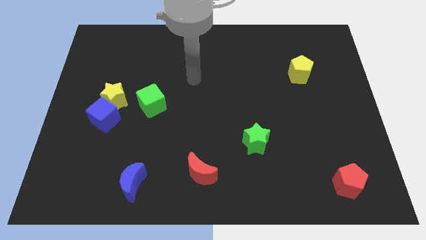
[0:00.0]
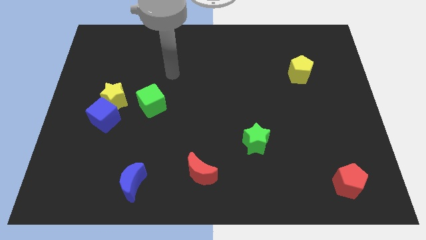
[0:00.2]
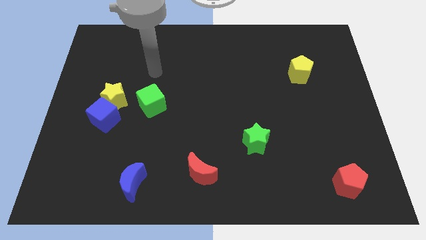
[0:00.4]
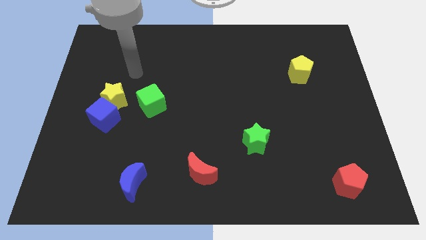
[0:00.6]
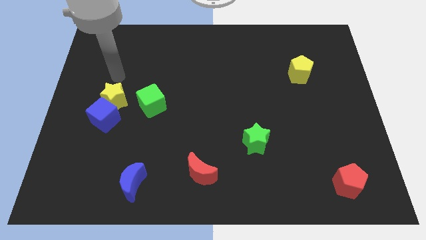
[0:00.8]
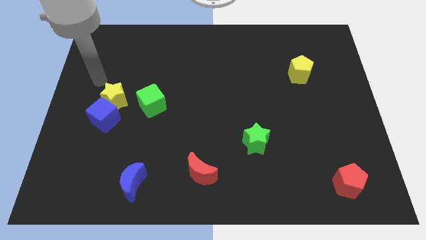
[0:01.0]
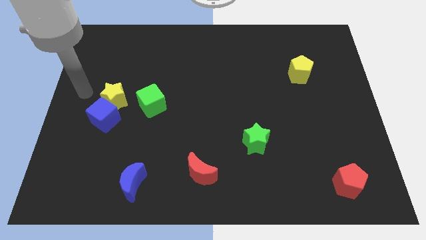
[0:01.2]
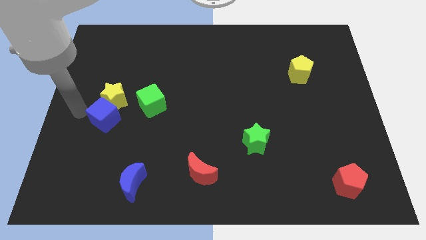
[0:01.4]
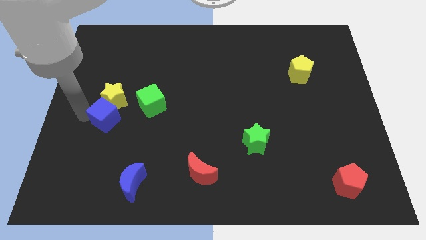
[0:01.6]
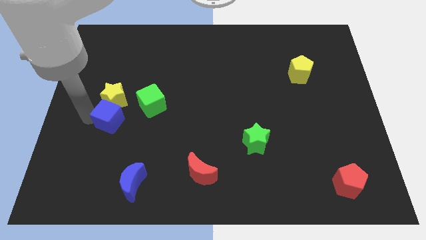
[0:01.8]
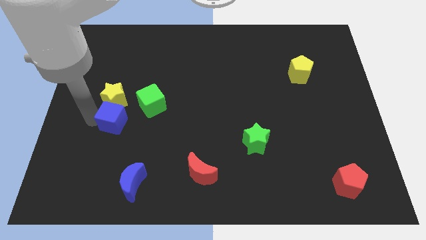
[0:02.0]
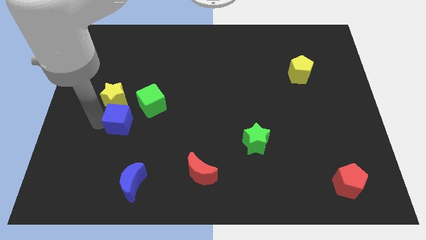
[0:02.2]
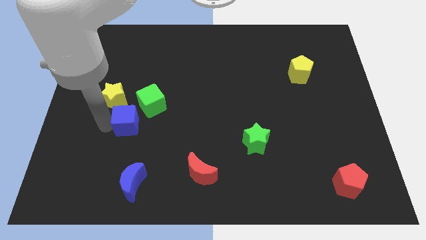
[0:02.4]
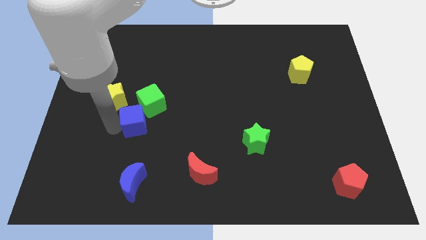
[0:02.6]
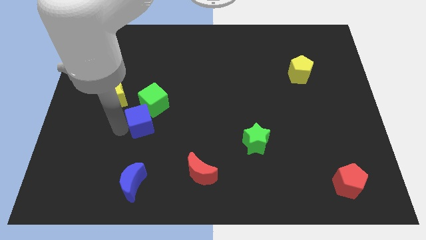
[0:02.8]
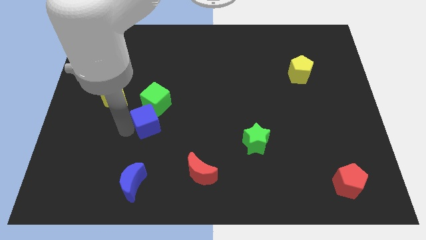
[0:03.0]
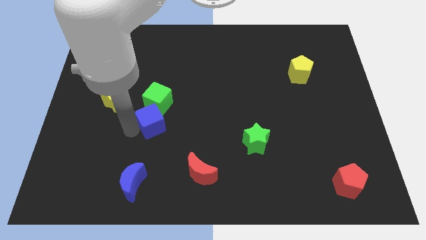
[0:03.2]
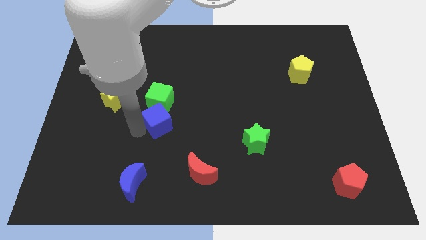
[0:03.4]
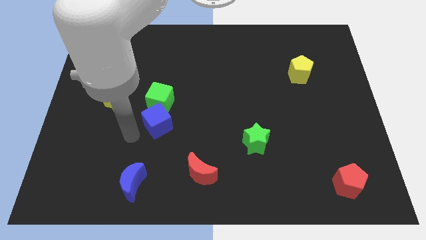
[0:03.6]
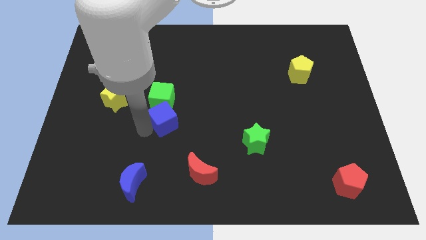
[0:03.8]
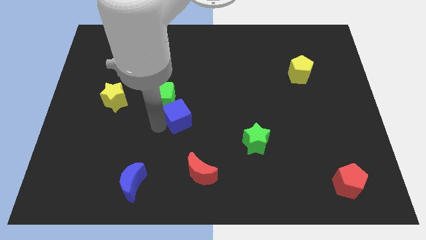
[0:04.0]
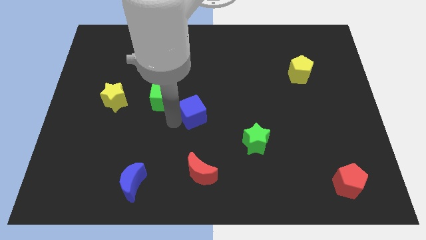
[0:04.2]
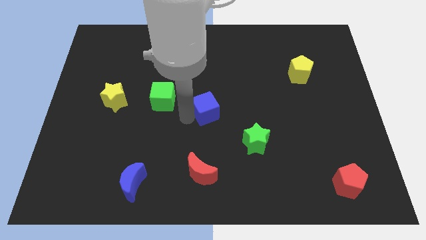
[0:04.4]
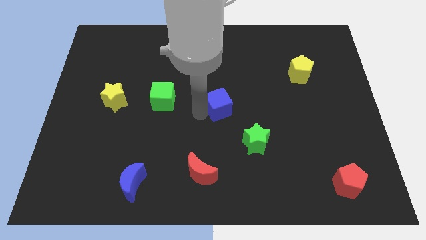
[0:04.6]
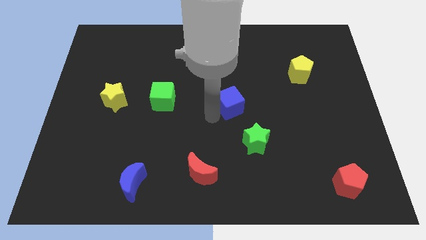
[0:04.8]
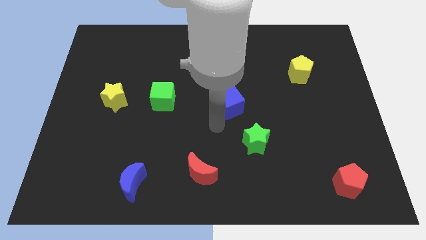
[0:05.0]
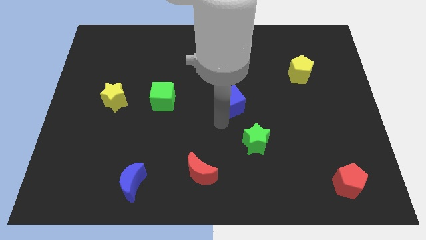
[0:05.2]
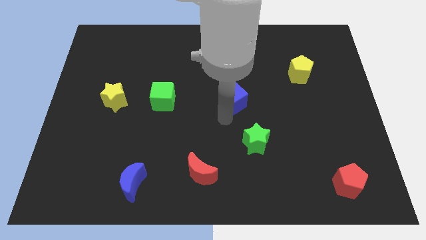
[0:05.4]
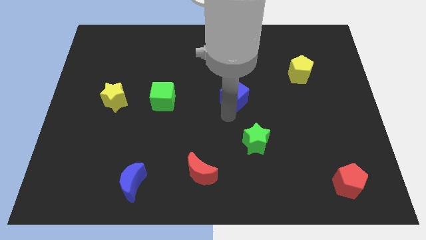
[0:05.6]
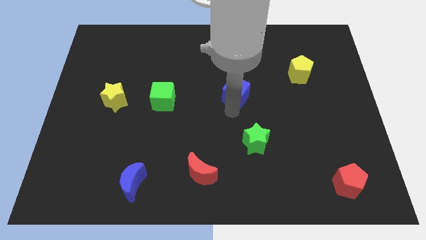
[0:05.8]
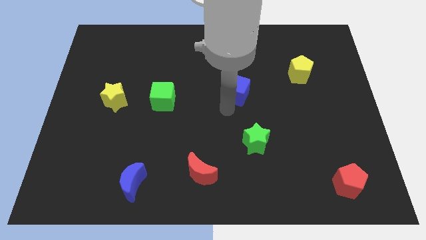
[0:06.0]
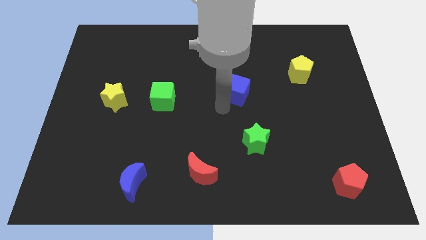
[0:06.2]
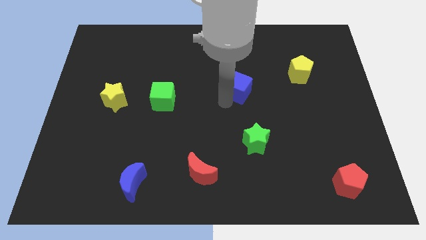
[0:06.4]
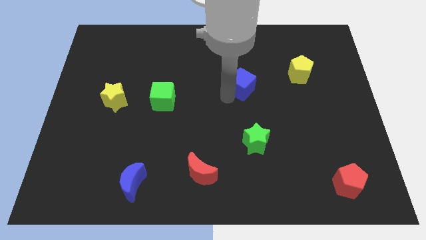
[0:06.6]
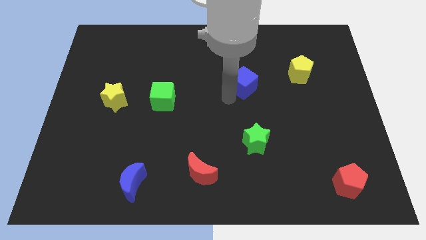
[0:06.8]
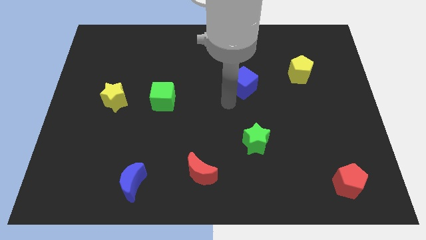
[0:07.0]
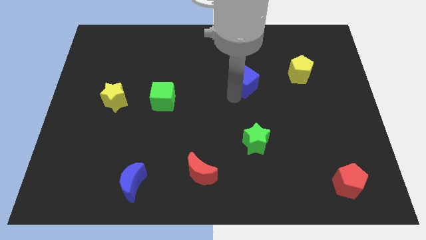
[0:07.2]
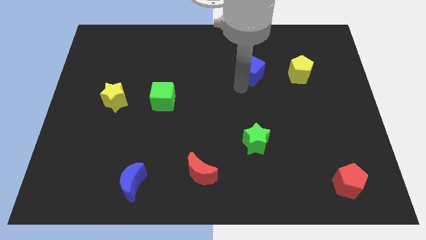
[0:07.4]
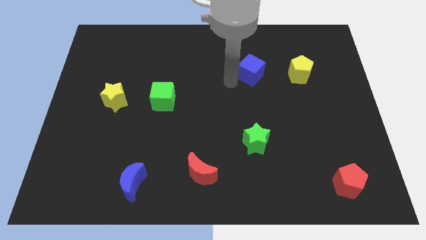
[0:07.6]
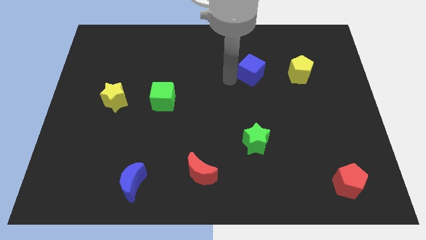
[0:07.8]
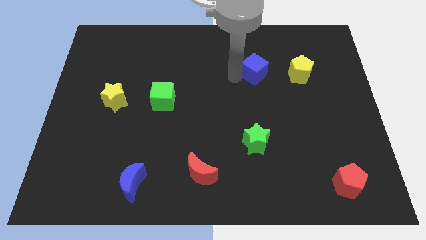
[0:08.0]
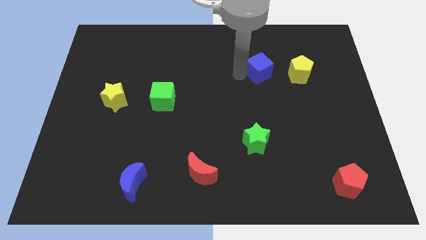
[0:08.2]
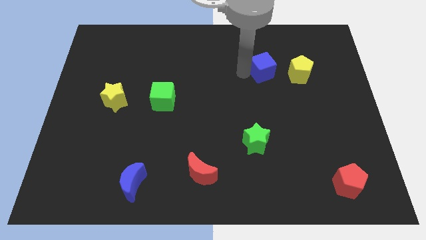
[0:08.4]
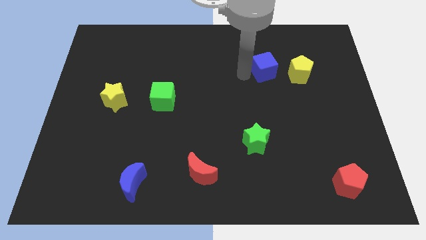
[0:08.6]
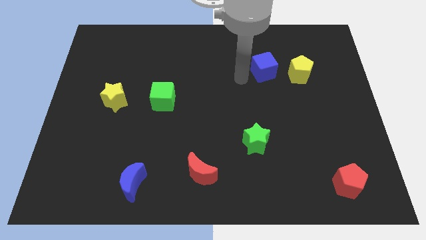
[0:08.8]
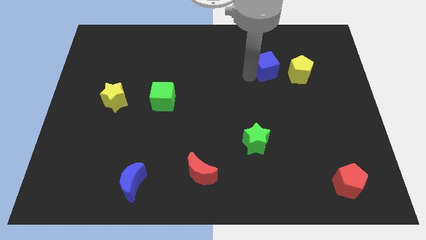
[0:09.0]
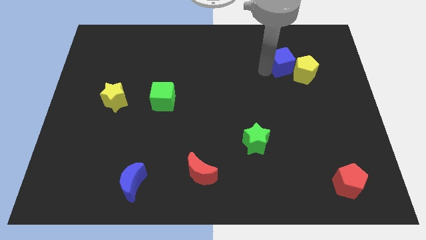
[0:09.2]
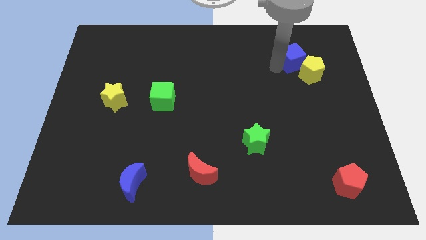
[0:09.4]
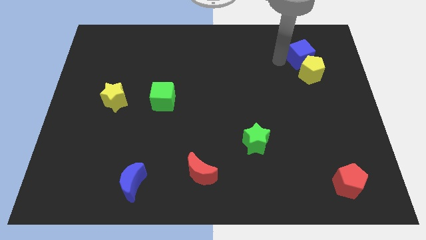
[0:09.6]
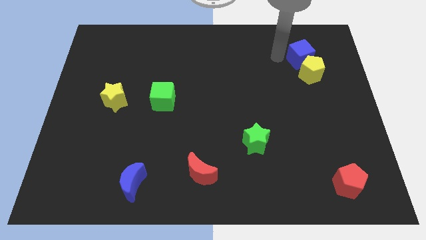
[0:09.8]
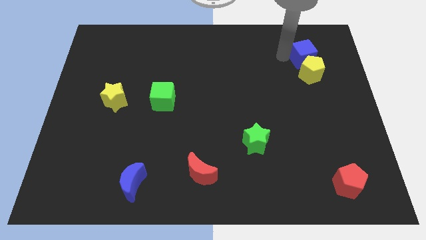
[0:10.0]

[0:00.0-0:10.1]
push the blue cube to the top right of the yellow pentagon

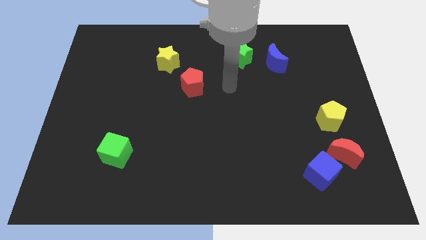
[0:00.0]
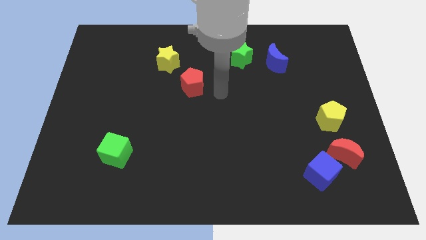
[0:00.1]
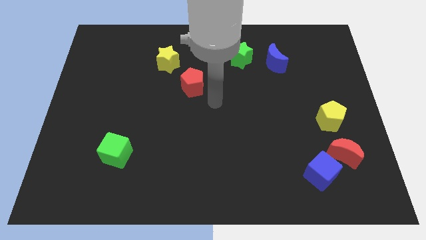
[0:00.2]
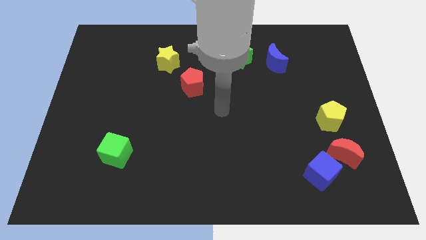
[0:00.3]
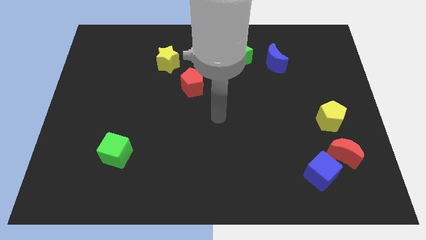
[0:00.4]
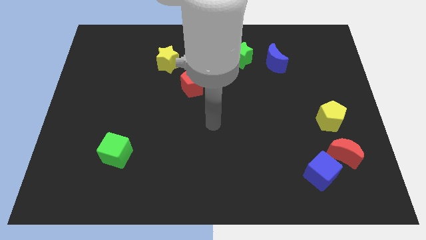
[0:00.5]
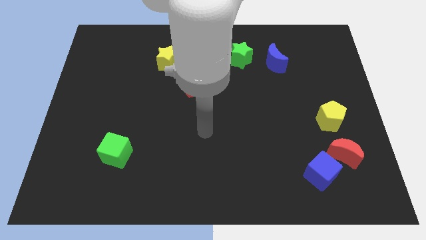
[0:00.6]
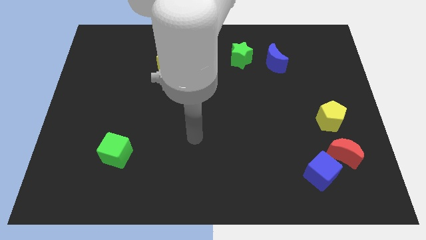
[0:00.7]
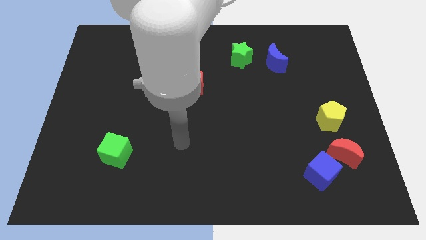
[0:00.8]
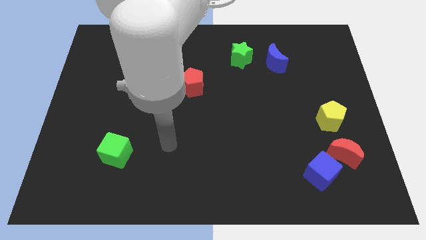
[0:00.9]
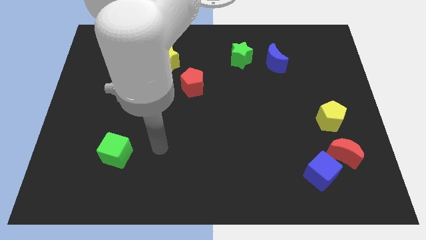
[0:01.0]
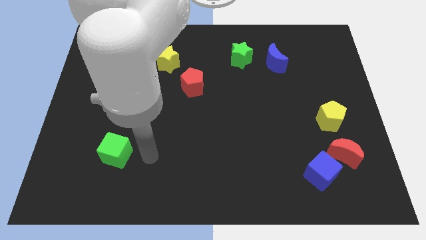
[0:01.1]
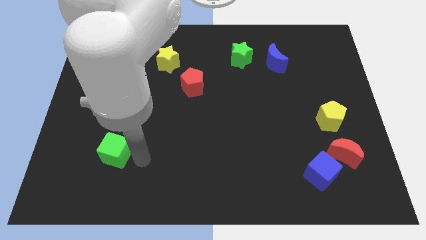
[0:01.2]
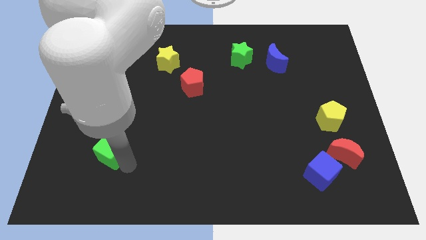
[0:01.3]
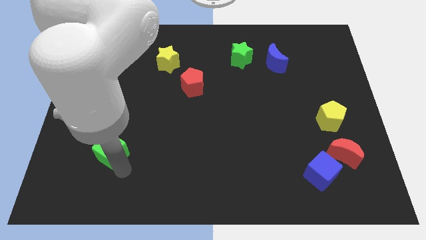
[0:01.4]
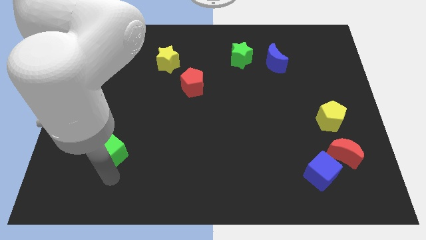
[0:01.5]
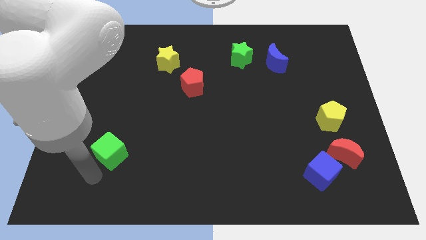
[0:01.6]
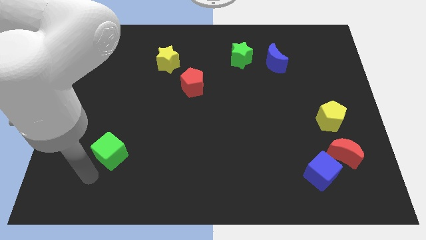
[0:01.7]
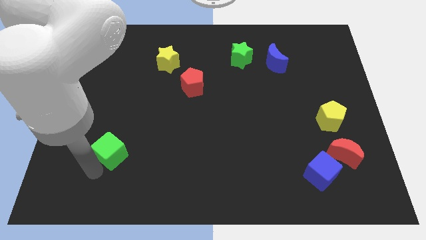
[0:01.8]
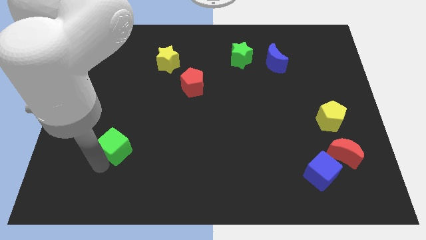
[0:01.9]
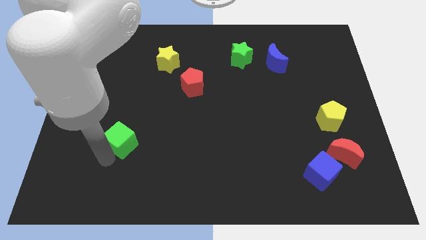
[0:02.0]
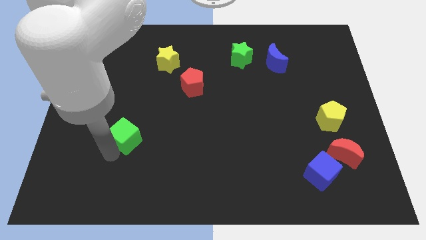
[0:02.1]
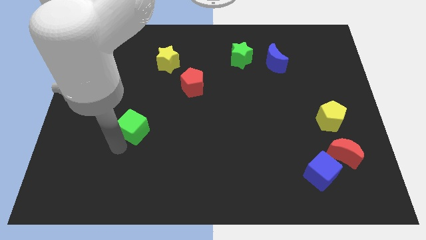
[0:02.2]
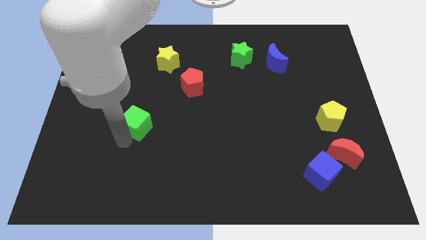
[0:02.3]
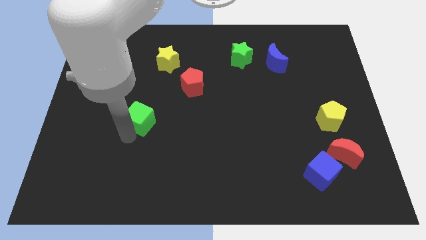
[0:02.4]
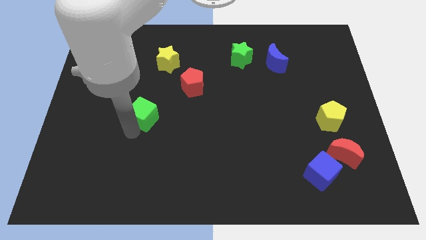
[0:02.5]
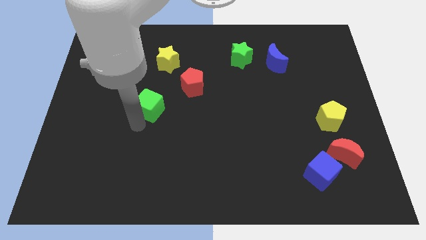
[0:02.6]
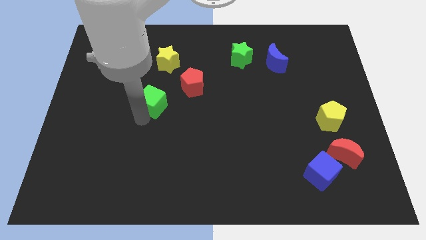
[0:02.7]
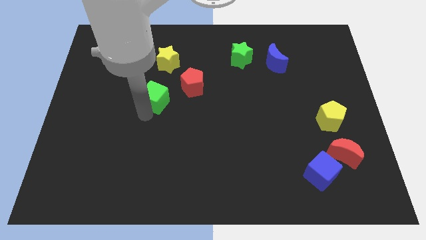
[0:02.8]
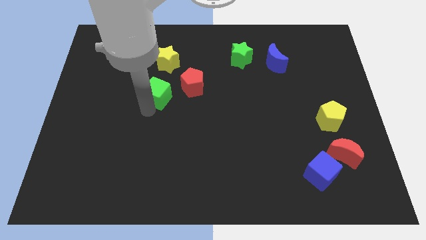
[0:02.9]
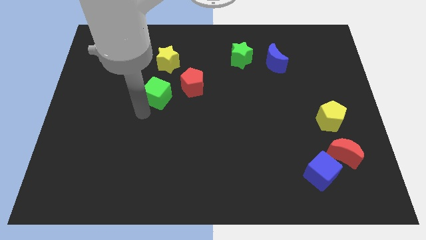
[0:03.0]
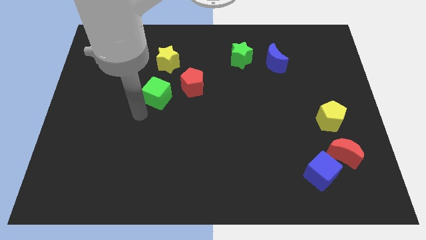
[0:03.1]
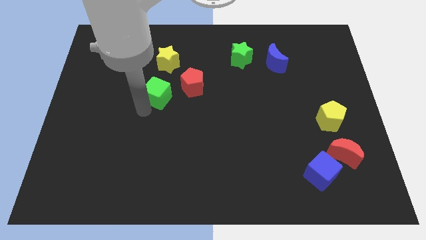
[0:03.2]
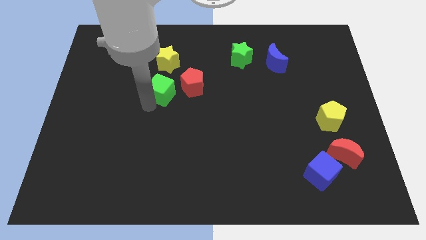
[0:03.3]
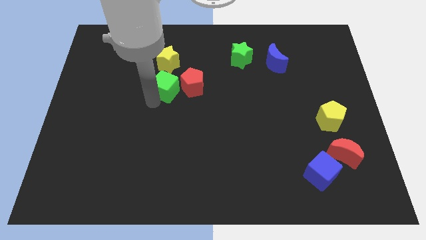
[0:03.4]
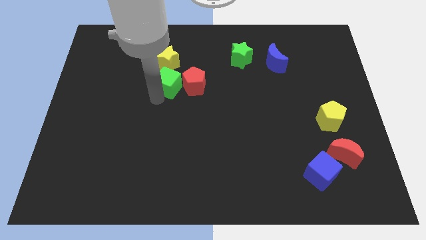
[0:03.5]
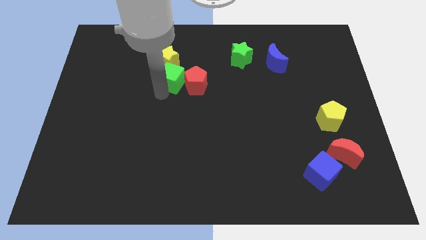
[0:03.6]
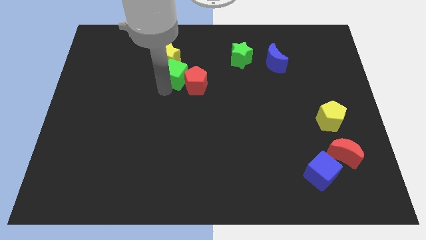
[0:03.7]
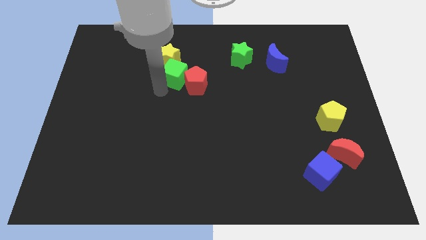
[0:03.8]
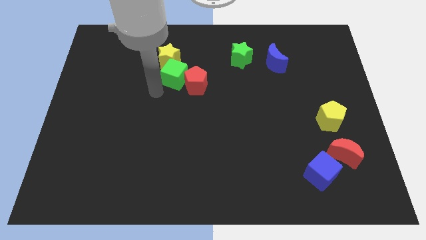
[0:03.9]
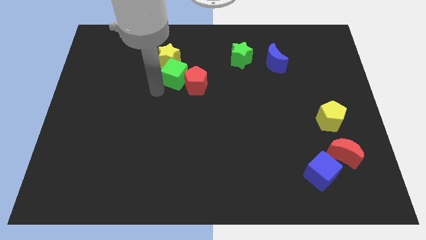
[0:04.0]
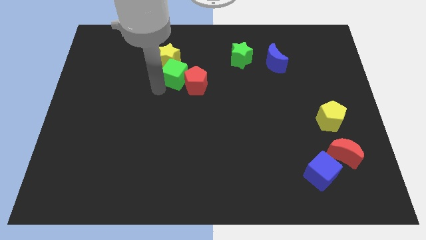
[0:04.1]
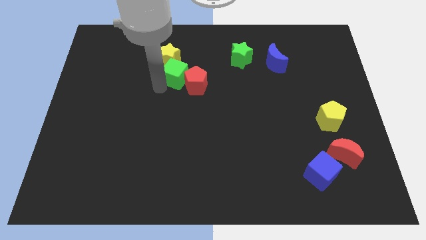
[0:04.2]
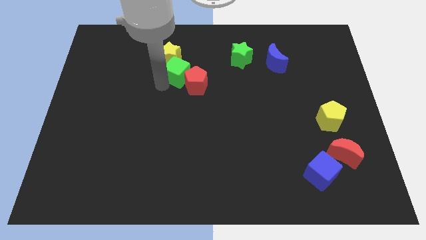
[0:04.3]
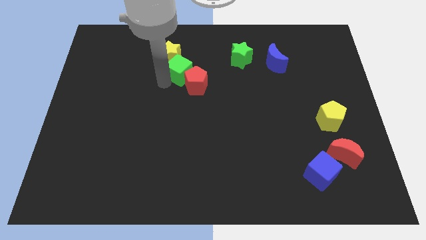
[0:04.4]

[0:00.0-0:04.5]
put the green cube to the top side of the red pentagon
